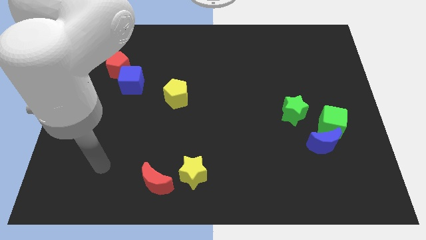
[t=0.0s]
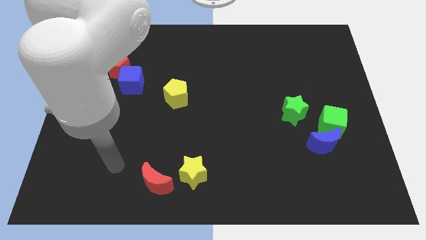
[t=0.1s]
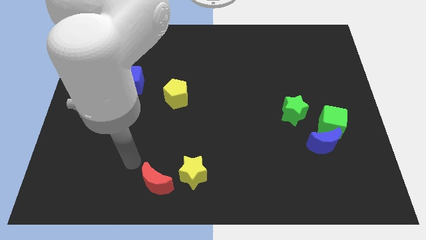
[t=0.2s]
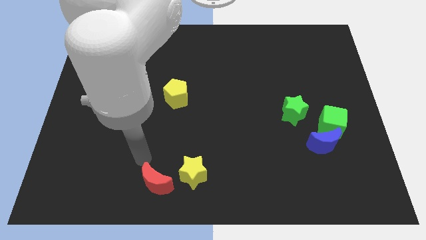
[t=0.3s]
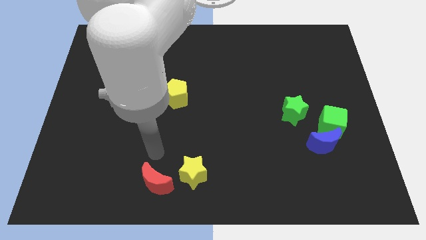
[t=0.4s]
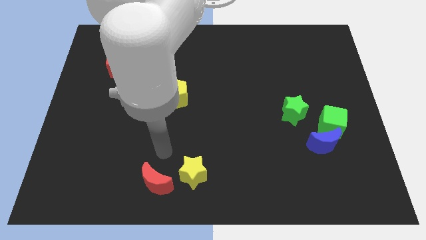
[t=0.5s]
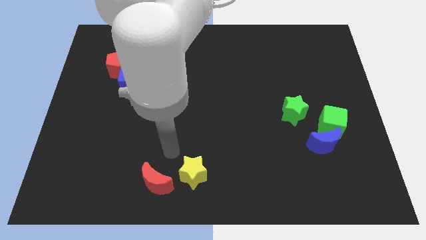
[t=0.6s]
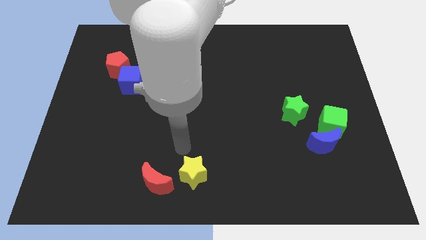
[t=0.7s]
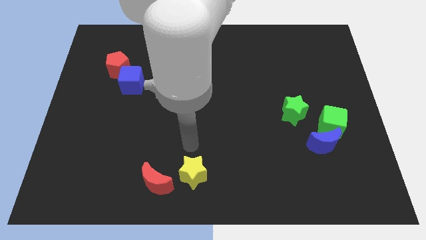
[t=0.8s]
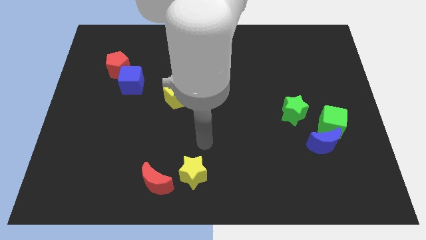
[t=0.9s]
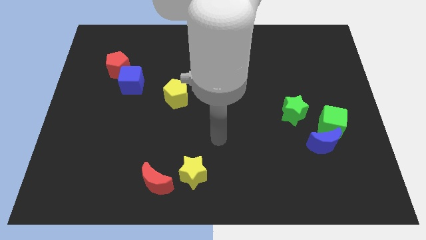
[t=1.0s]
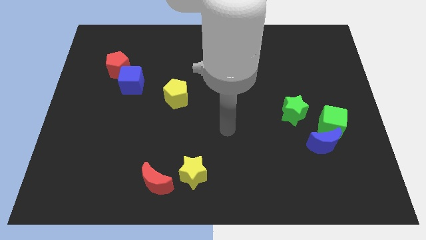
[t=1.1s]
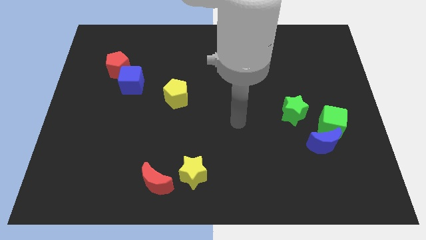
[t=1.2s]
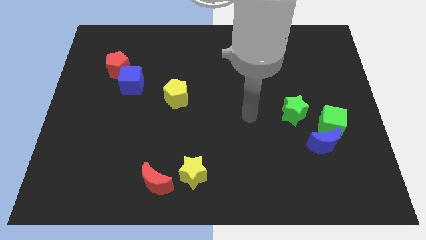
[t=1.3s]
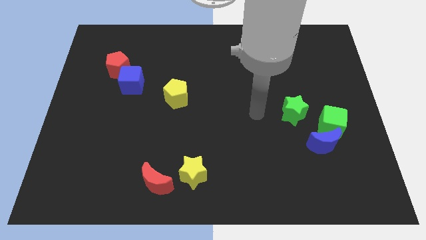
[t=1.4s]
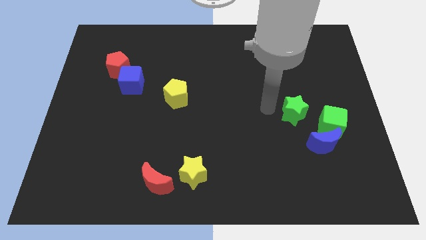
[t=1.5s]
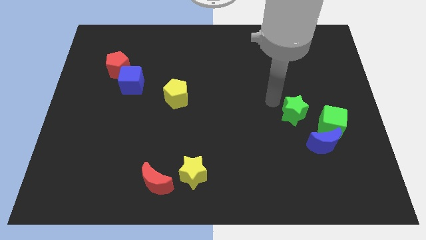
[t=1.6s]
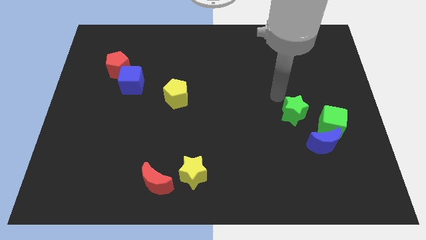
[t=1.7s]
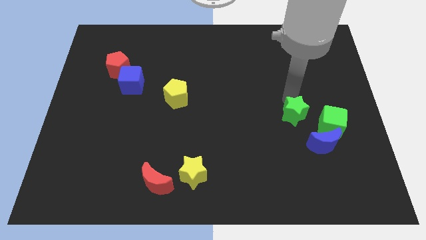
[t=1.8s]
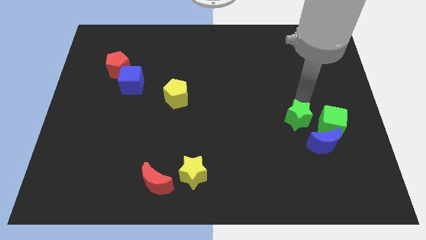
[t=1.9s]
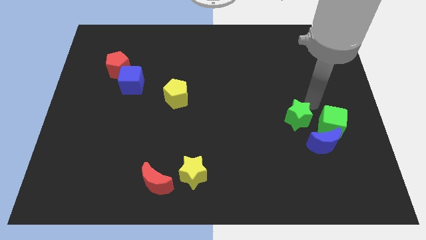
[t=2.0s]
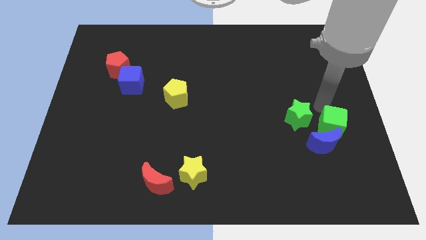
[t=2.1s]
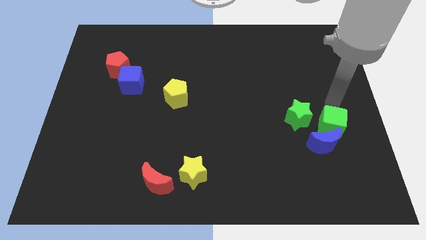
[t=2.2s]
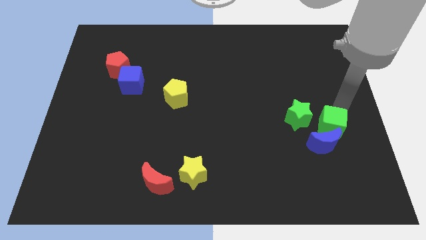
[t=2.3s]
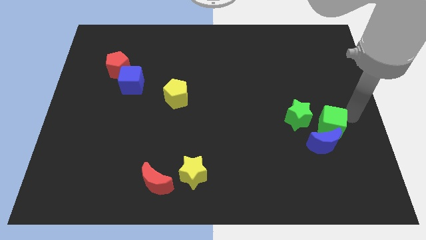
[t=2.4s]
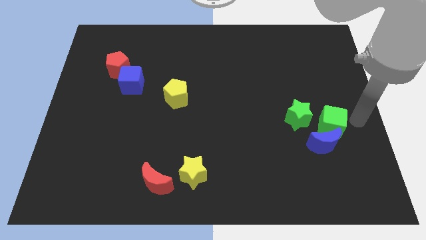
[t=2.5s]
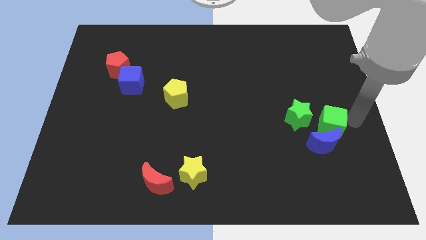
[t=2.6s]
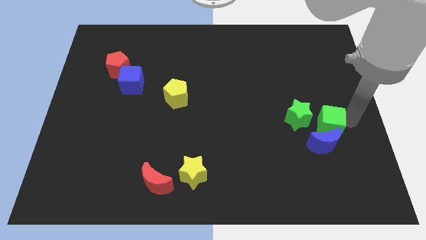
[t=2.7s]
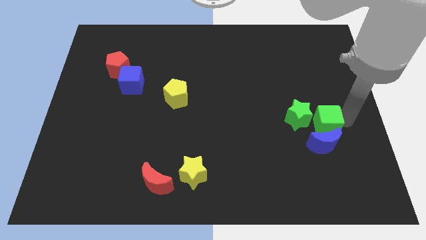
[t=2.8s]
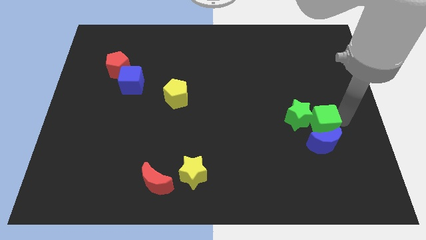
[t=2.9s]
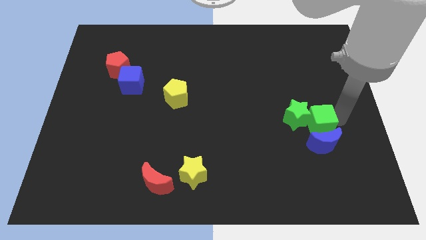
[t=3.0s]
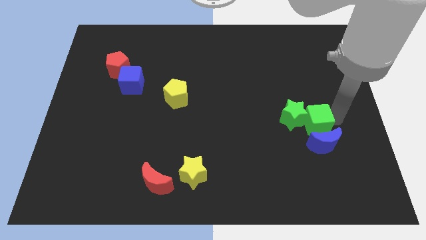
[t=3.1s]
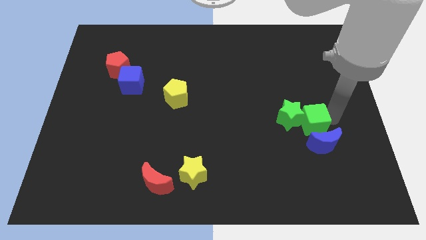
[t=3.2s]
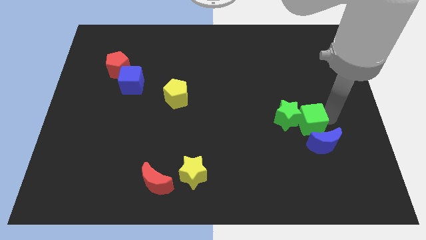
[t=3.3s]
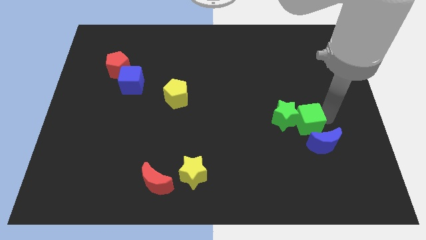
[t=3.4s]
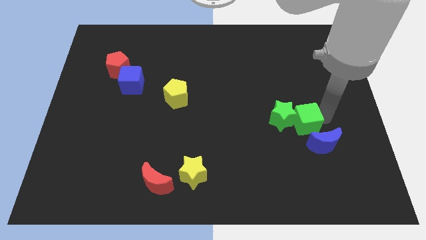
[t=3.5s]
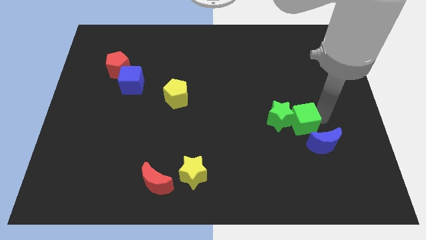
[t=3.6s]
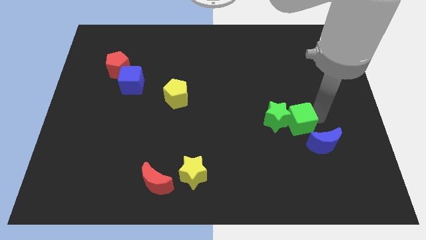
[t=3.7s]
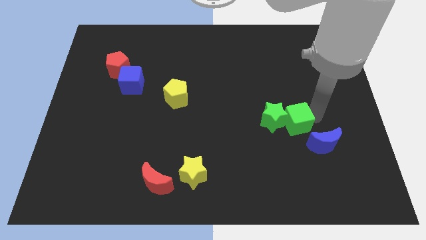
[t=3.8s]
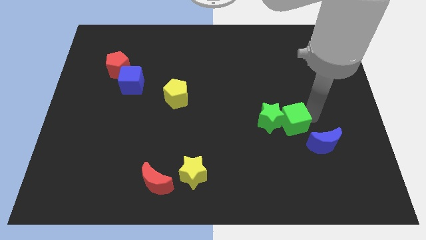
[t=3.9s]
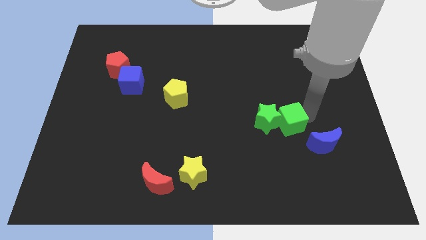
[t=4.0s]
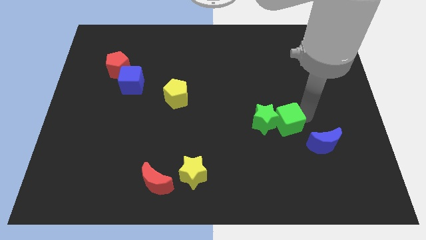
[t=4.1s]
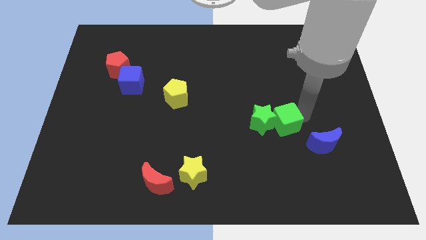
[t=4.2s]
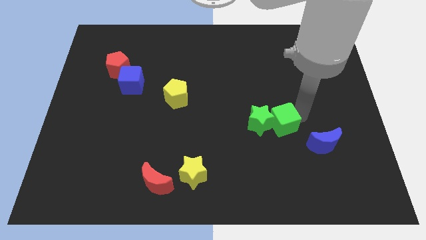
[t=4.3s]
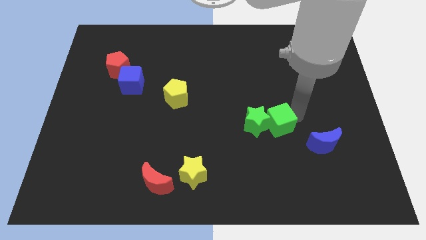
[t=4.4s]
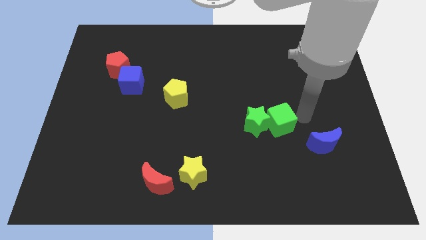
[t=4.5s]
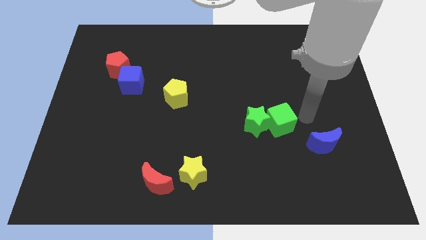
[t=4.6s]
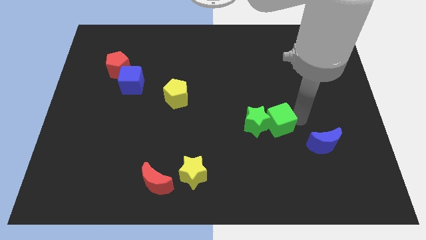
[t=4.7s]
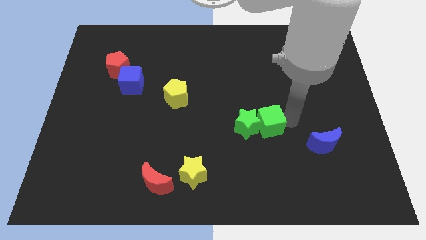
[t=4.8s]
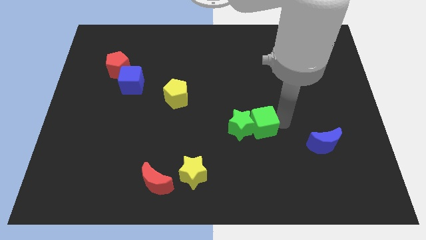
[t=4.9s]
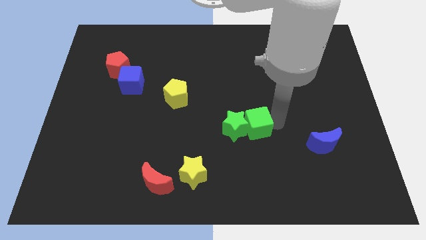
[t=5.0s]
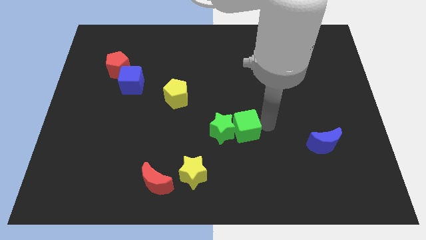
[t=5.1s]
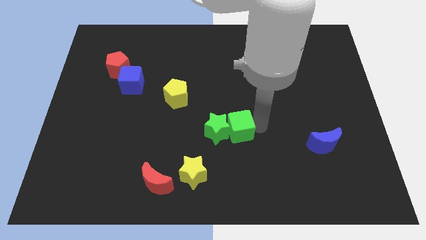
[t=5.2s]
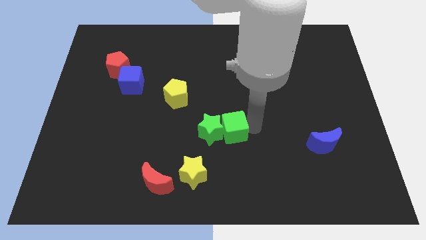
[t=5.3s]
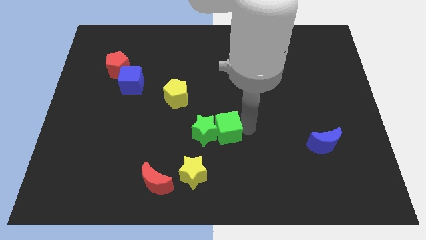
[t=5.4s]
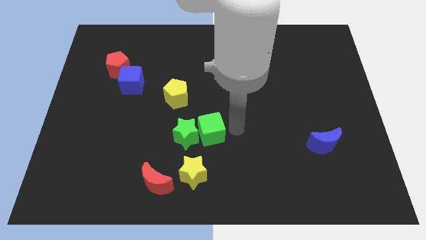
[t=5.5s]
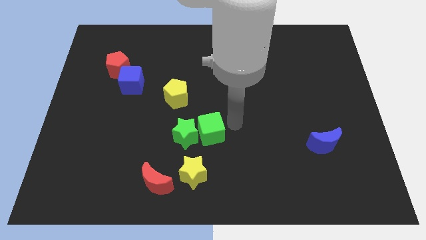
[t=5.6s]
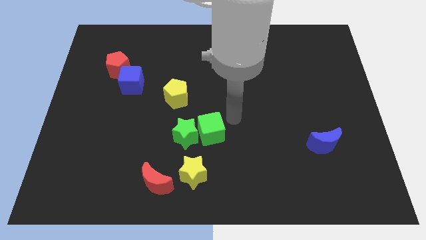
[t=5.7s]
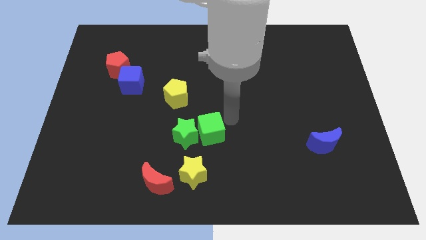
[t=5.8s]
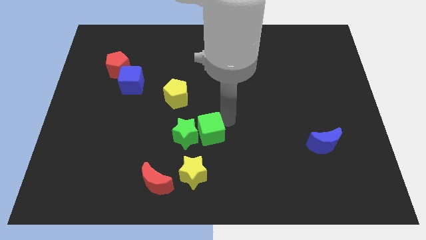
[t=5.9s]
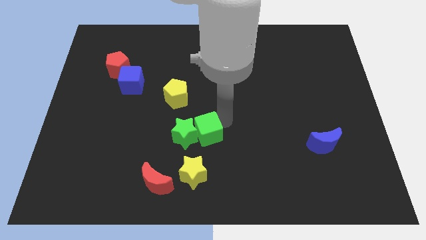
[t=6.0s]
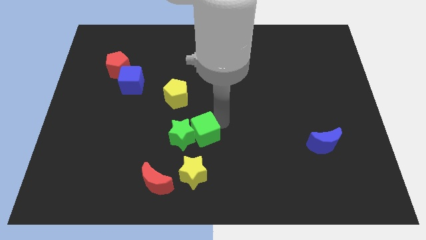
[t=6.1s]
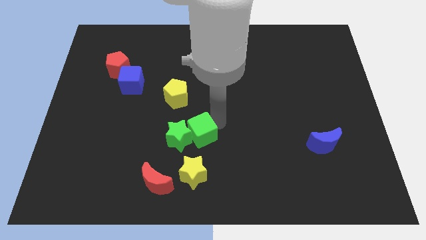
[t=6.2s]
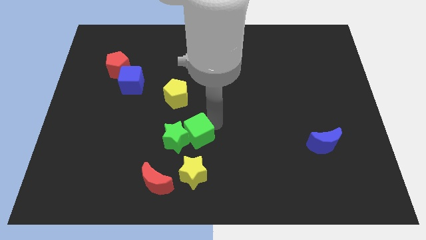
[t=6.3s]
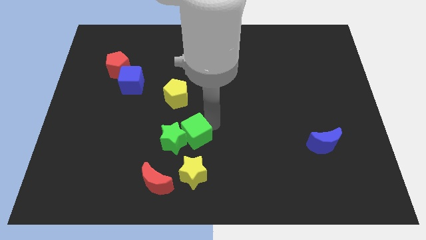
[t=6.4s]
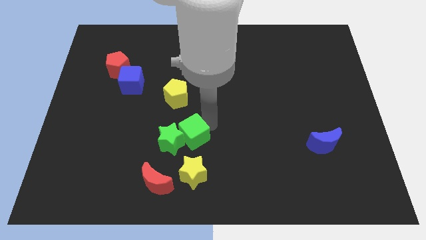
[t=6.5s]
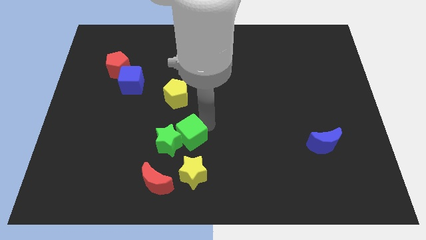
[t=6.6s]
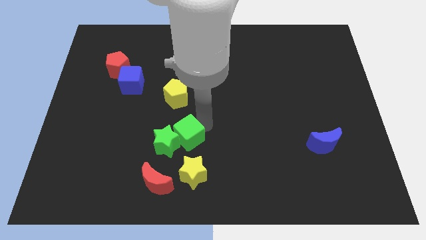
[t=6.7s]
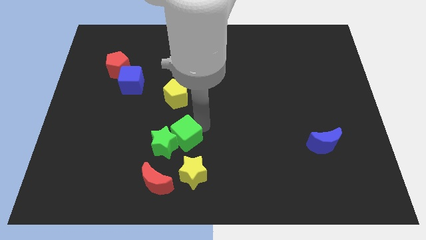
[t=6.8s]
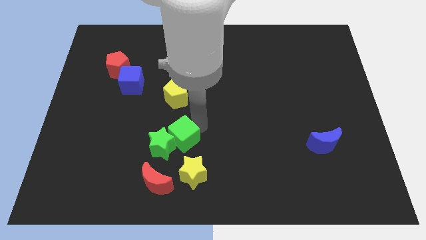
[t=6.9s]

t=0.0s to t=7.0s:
slide the green cube to the top left side of the yellow star
